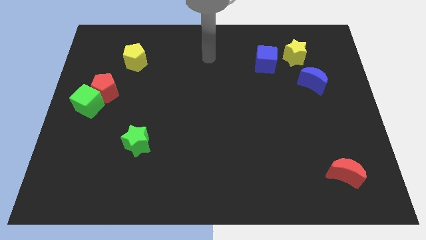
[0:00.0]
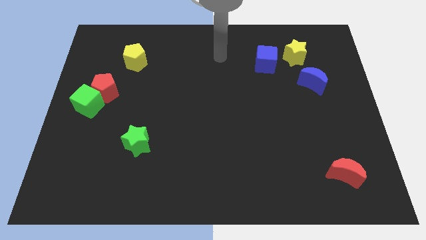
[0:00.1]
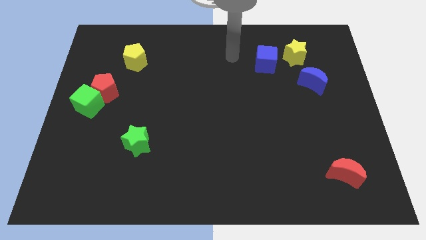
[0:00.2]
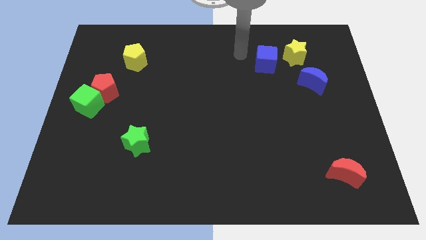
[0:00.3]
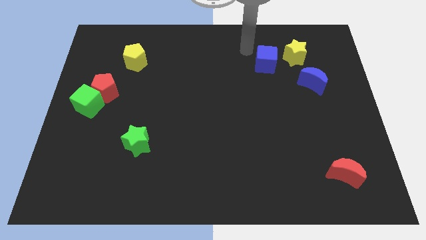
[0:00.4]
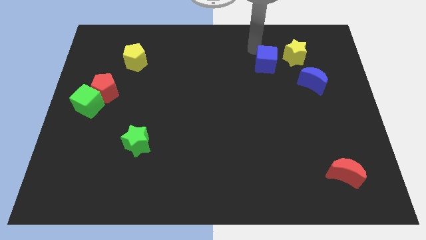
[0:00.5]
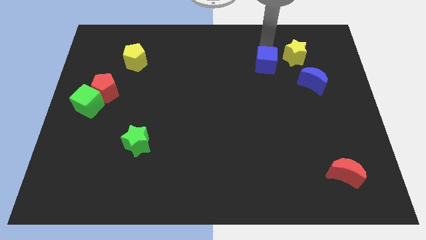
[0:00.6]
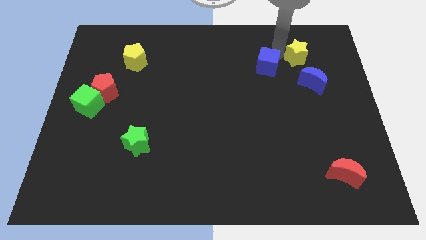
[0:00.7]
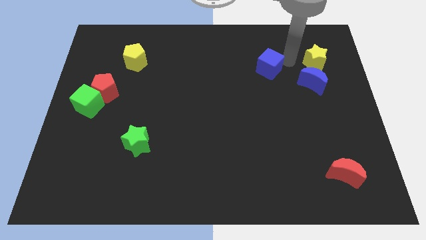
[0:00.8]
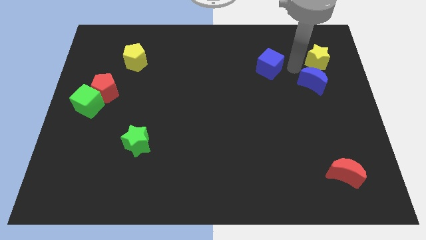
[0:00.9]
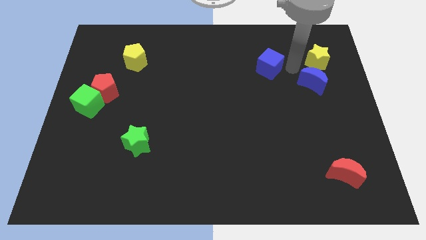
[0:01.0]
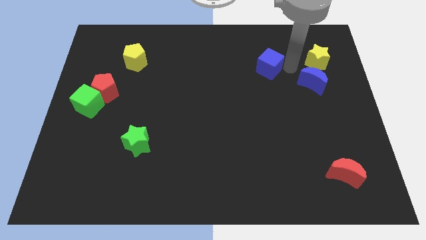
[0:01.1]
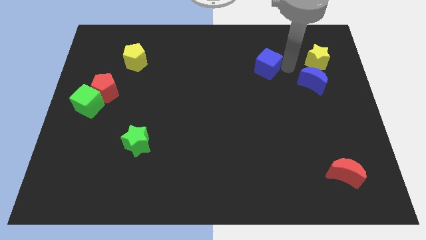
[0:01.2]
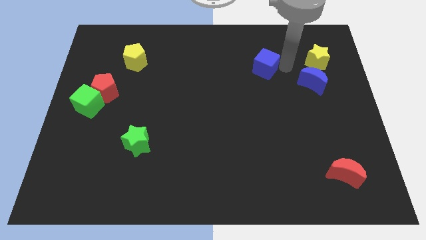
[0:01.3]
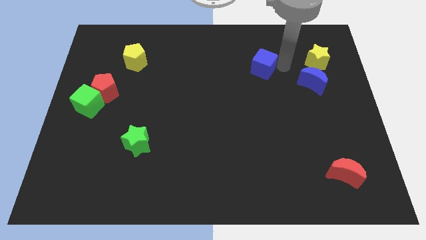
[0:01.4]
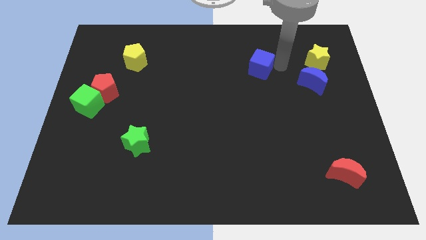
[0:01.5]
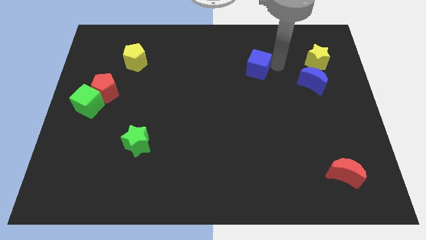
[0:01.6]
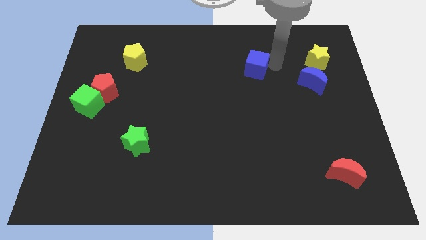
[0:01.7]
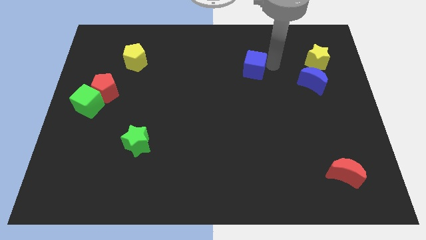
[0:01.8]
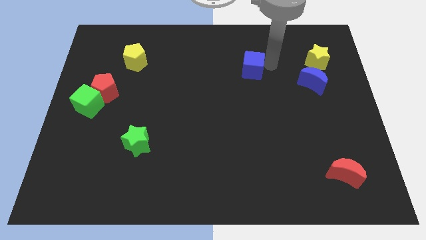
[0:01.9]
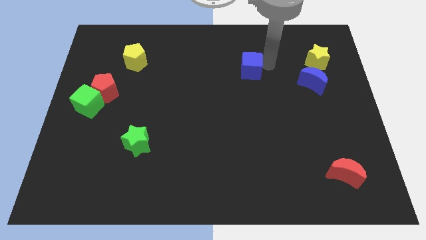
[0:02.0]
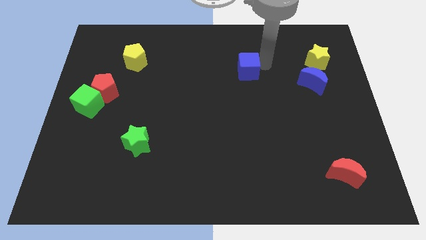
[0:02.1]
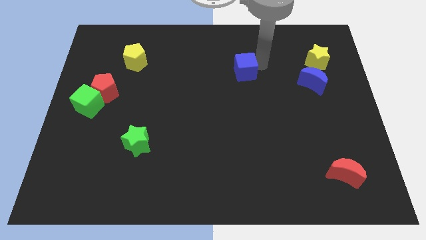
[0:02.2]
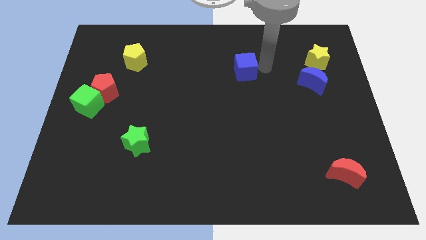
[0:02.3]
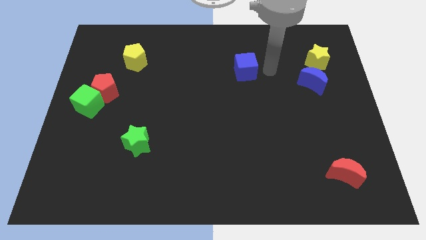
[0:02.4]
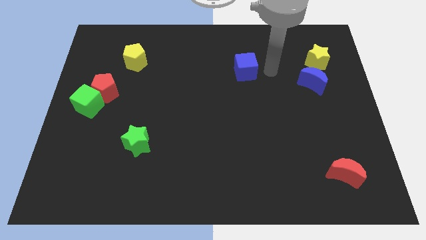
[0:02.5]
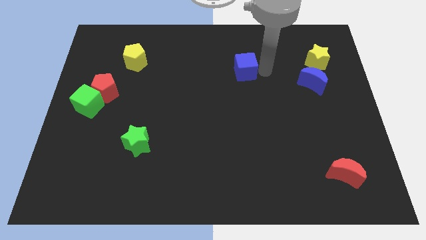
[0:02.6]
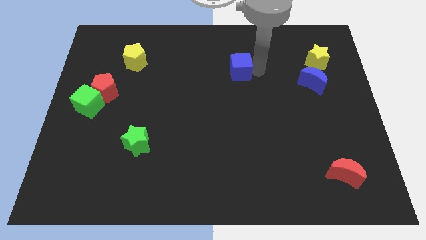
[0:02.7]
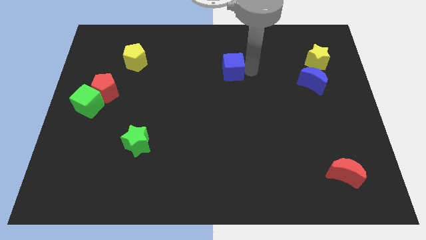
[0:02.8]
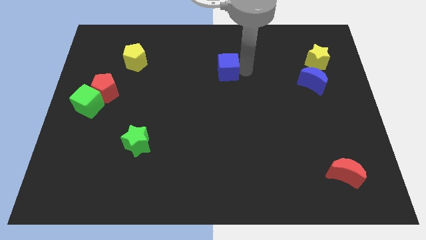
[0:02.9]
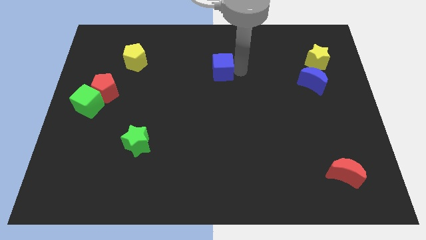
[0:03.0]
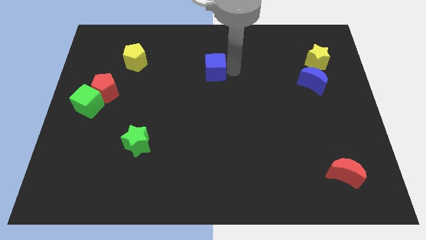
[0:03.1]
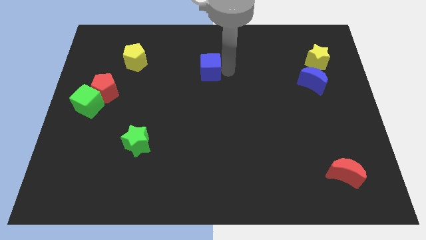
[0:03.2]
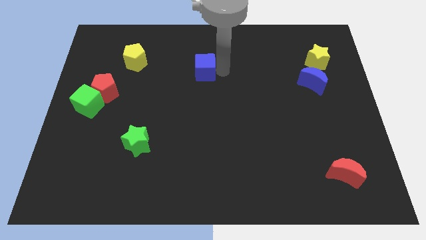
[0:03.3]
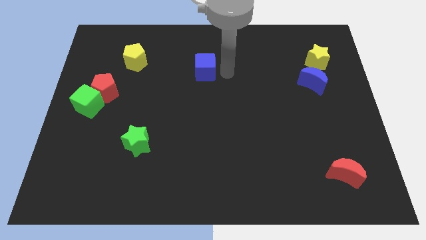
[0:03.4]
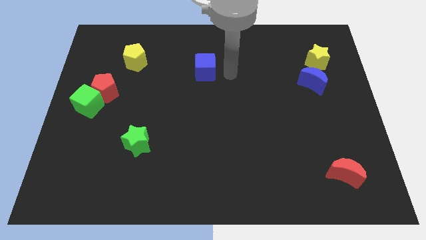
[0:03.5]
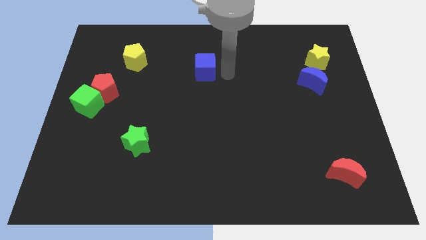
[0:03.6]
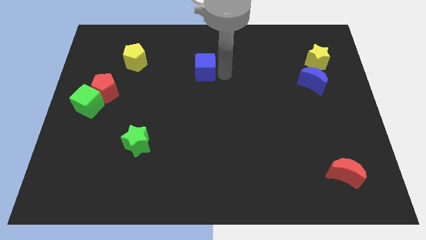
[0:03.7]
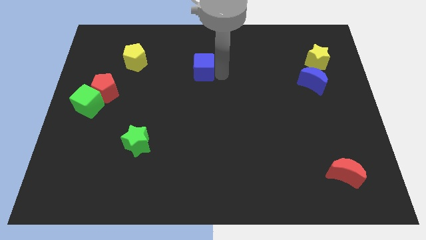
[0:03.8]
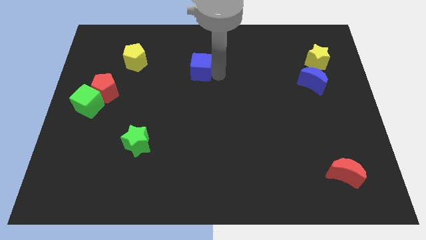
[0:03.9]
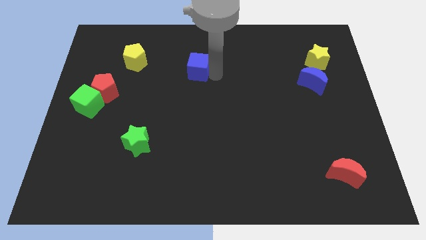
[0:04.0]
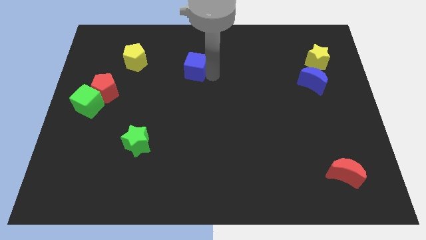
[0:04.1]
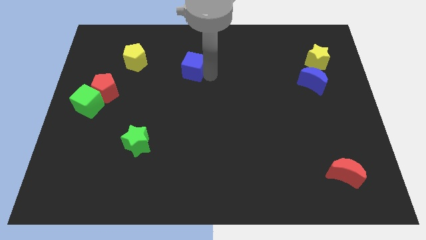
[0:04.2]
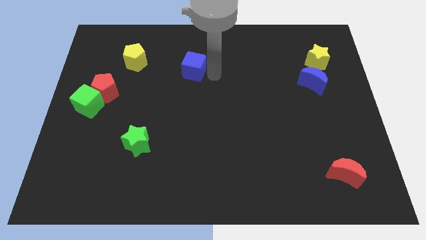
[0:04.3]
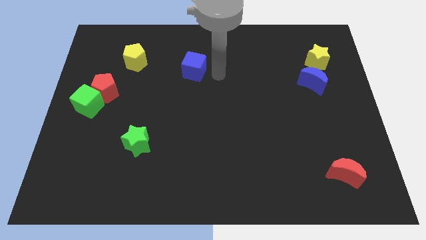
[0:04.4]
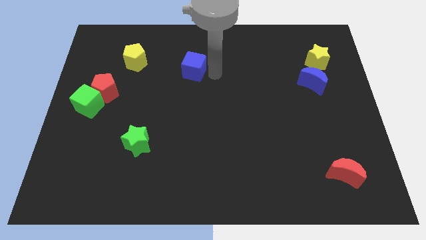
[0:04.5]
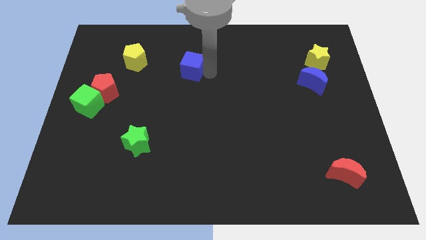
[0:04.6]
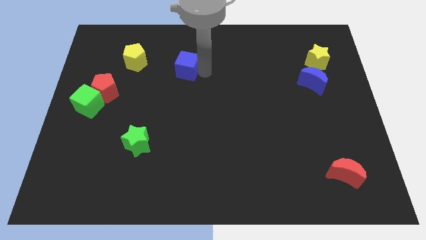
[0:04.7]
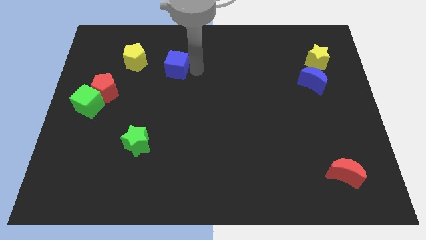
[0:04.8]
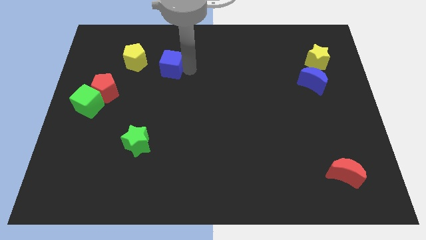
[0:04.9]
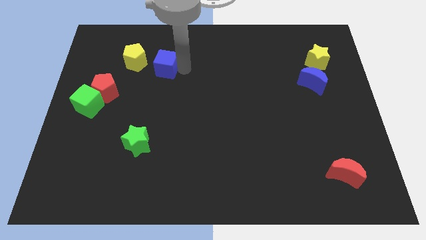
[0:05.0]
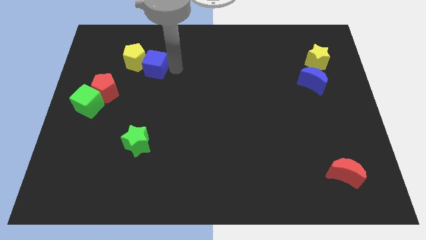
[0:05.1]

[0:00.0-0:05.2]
put the blue cube close to the yellow pentagon

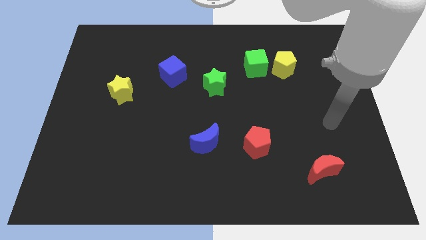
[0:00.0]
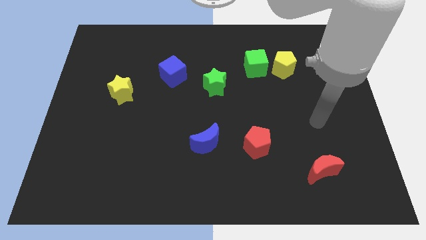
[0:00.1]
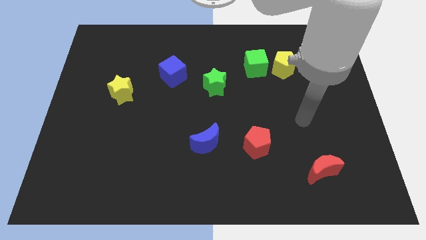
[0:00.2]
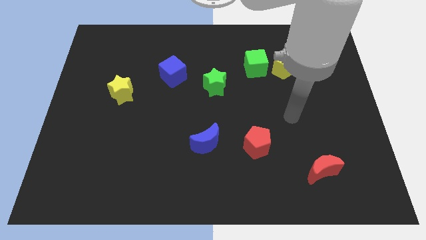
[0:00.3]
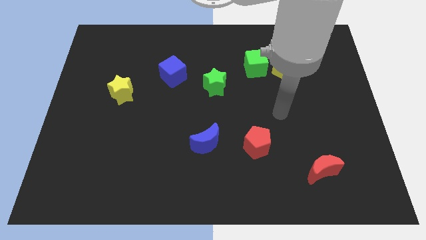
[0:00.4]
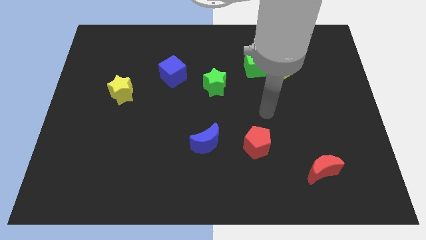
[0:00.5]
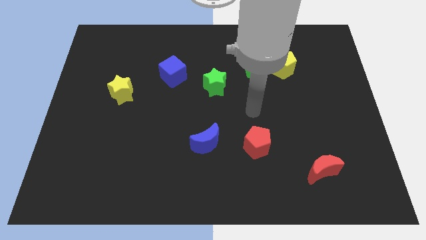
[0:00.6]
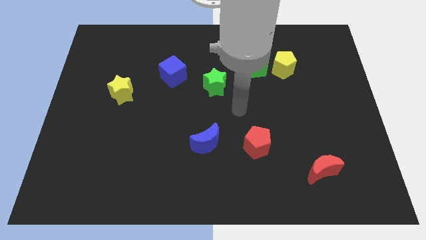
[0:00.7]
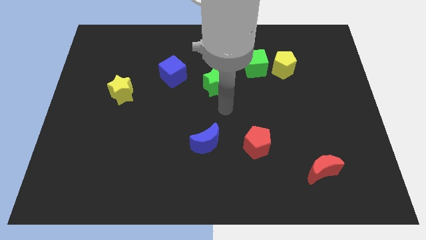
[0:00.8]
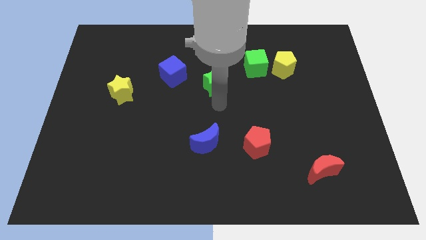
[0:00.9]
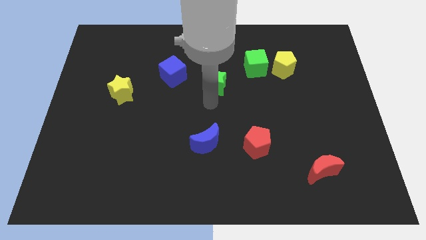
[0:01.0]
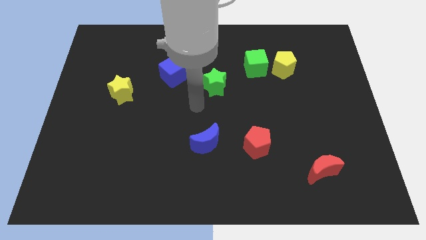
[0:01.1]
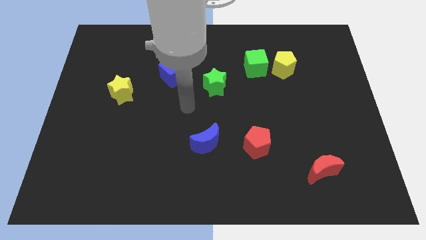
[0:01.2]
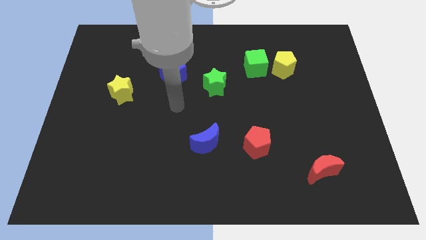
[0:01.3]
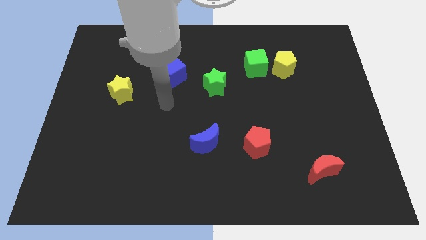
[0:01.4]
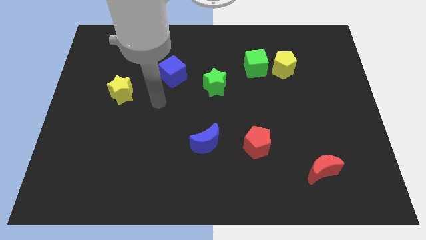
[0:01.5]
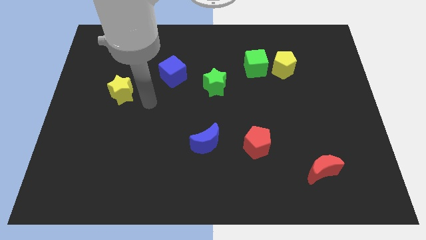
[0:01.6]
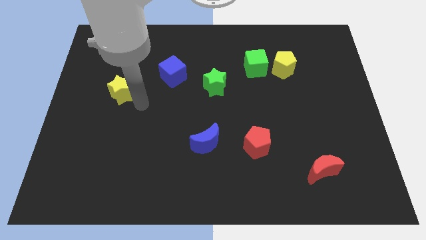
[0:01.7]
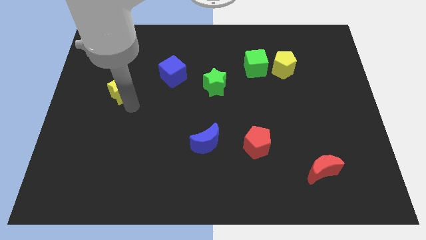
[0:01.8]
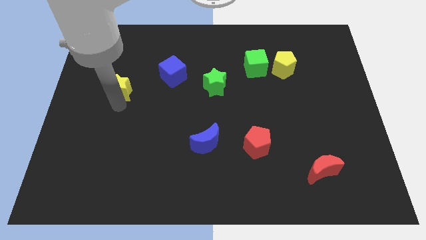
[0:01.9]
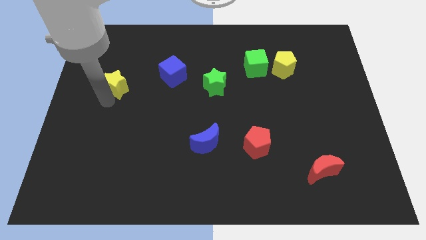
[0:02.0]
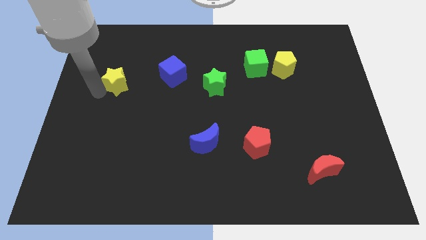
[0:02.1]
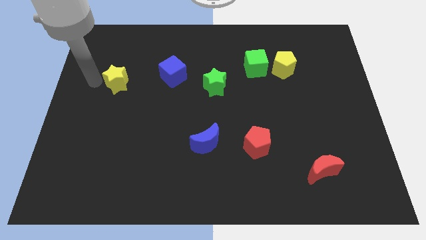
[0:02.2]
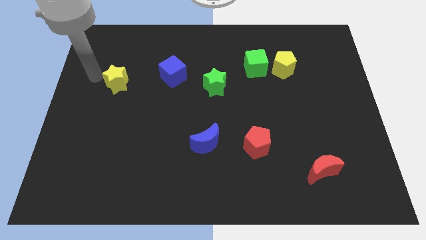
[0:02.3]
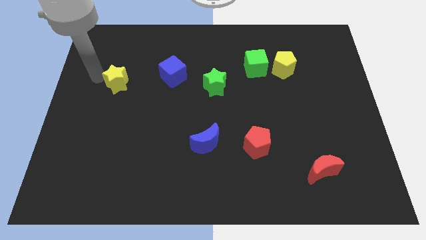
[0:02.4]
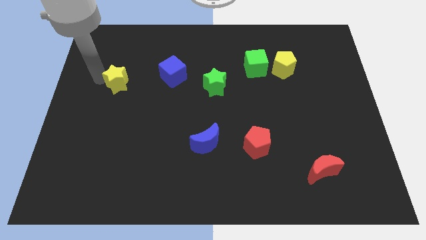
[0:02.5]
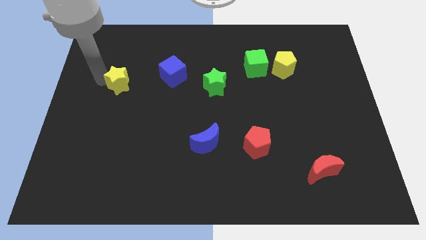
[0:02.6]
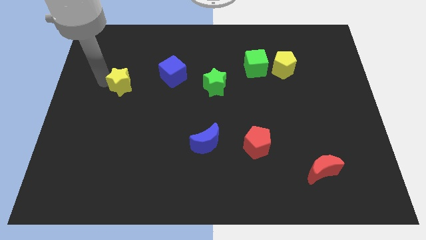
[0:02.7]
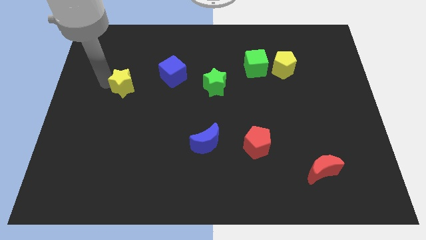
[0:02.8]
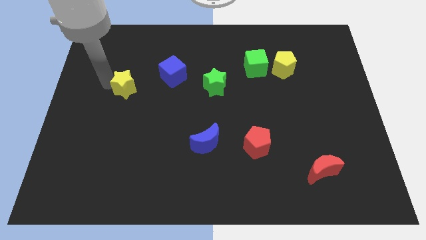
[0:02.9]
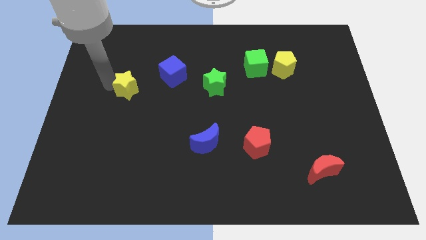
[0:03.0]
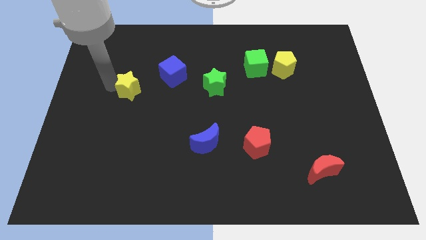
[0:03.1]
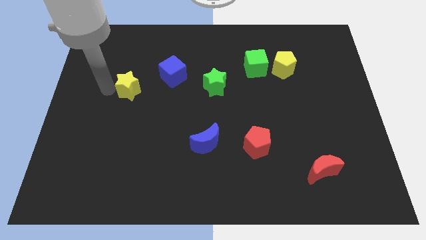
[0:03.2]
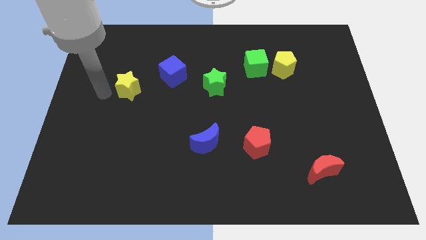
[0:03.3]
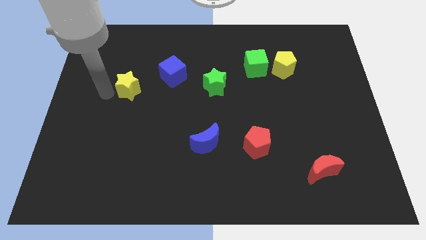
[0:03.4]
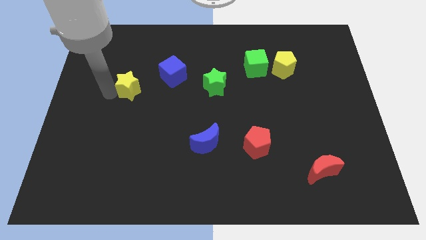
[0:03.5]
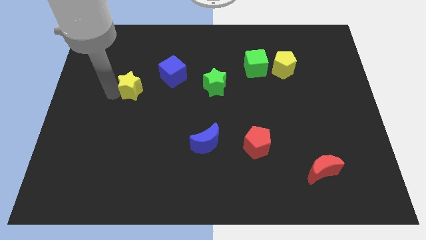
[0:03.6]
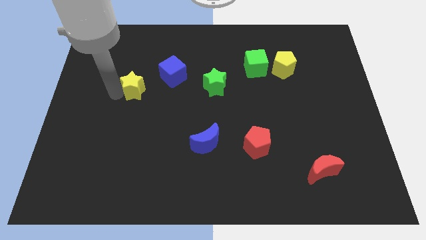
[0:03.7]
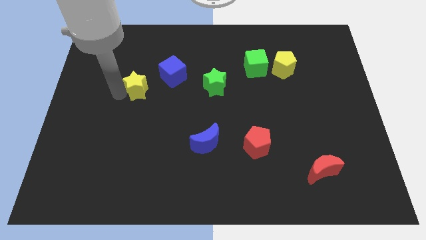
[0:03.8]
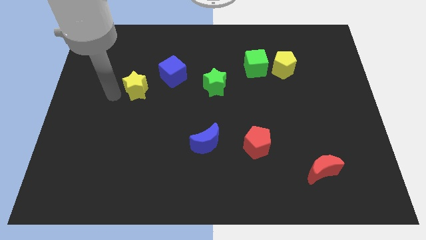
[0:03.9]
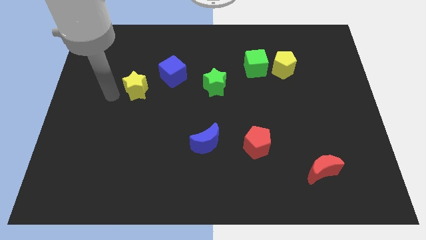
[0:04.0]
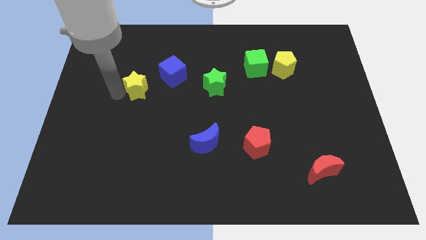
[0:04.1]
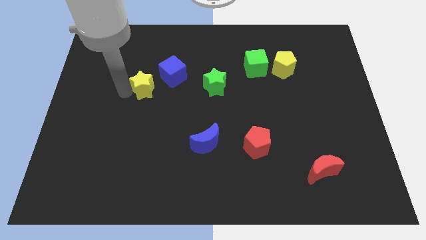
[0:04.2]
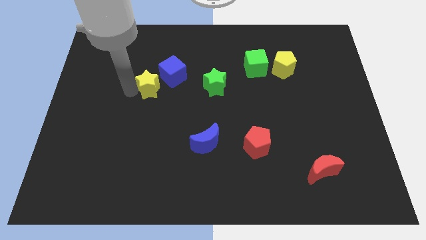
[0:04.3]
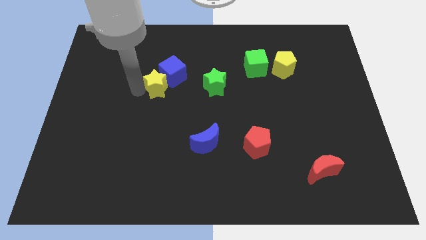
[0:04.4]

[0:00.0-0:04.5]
put the yellow star next to the blue cube
